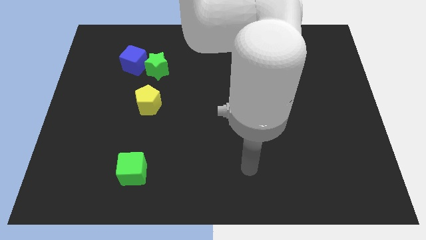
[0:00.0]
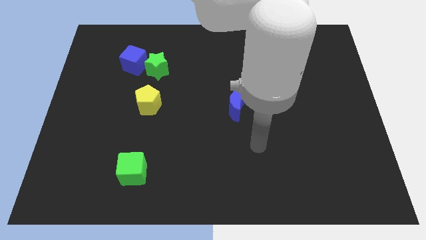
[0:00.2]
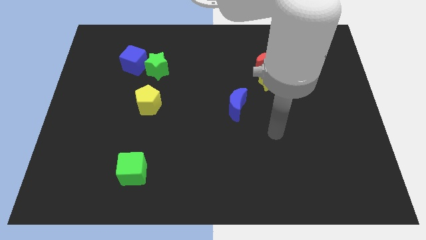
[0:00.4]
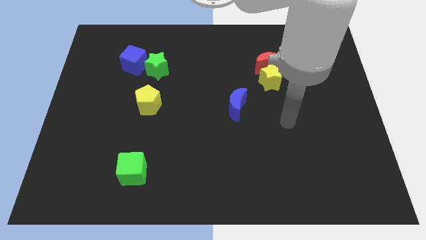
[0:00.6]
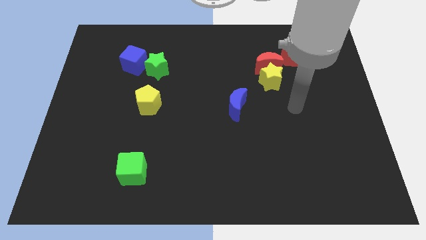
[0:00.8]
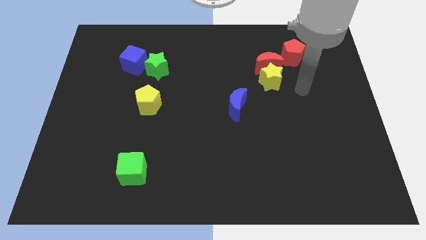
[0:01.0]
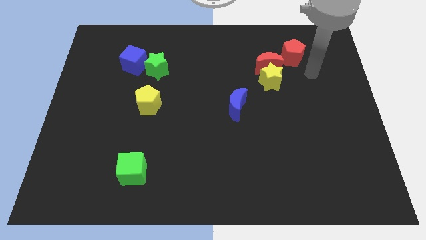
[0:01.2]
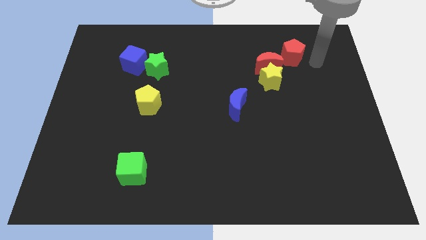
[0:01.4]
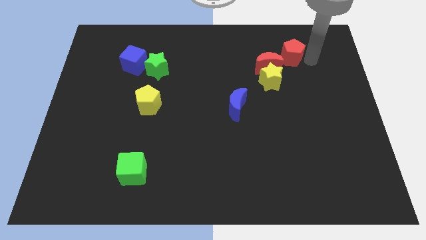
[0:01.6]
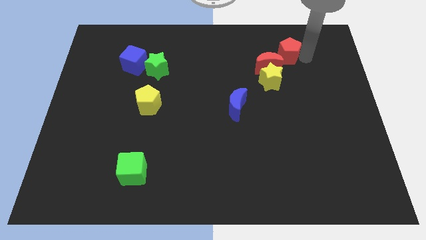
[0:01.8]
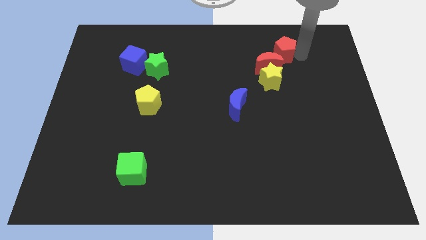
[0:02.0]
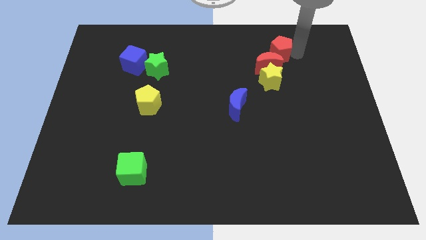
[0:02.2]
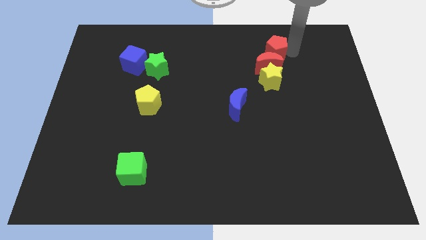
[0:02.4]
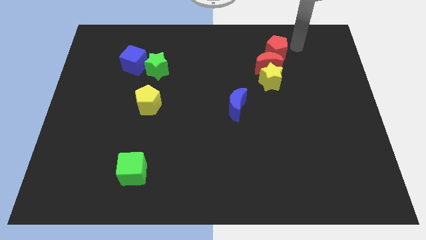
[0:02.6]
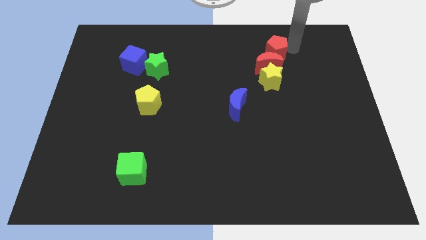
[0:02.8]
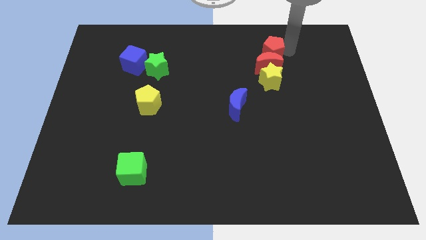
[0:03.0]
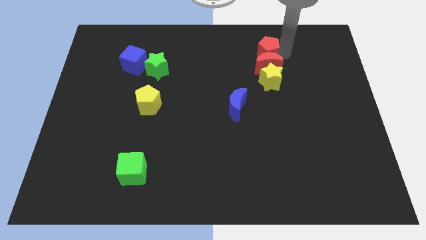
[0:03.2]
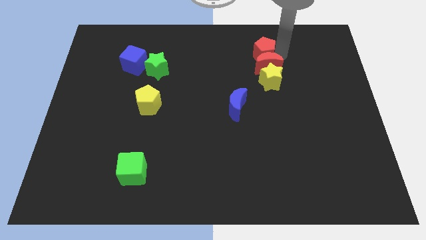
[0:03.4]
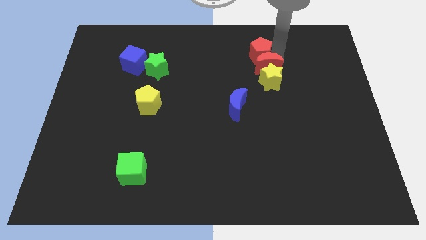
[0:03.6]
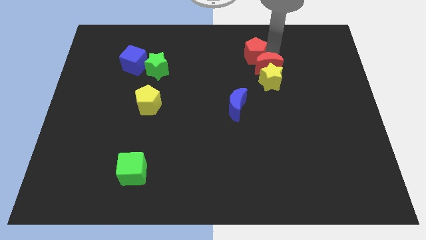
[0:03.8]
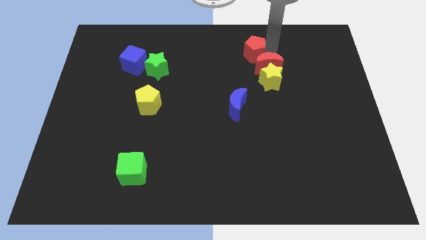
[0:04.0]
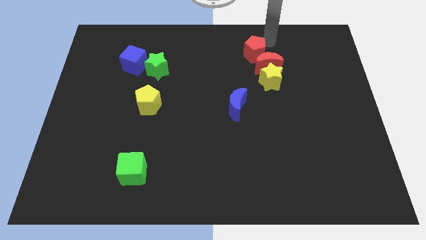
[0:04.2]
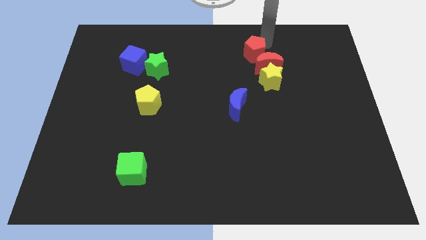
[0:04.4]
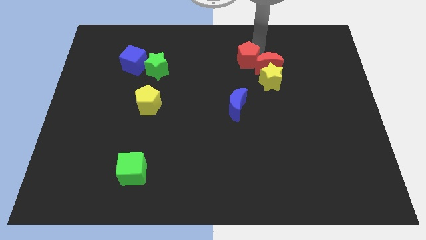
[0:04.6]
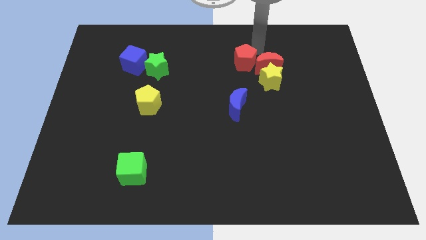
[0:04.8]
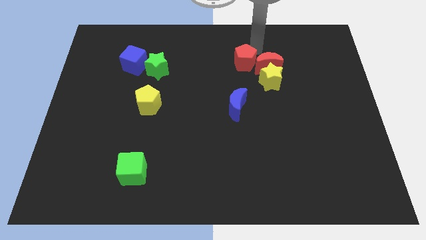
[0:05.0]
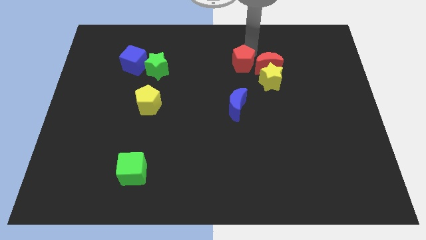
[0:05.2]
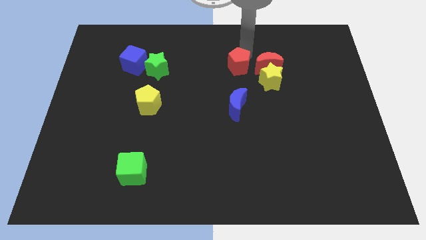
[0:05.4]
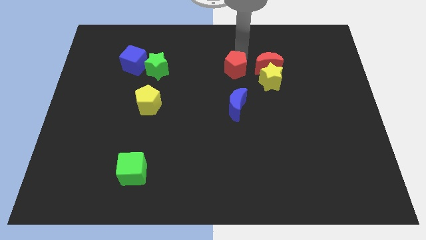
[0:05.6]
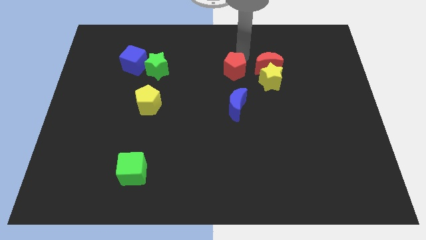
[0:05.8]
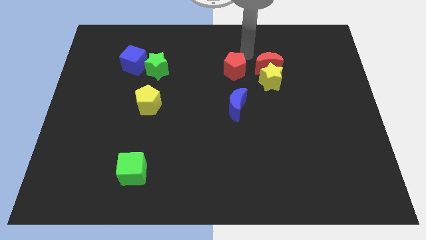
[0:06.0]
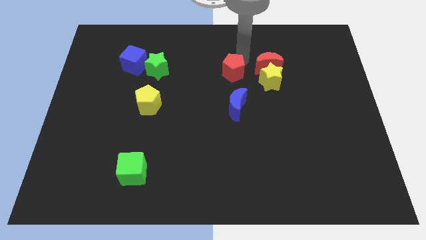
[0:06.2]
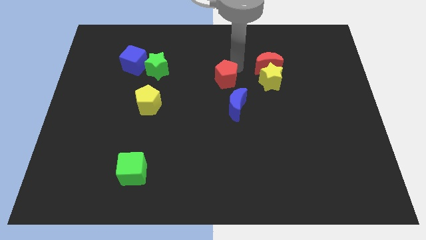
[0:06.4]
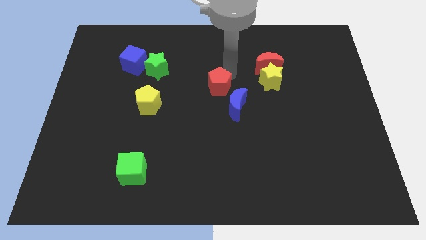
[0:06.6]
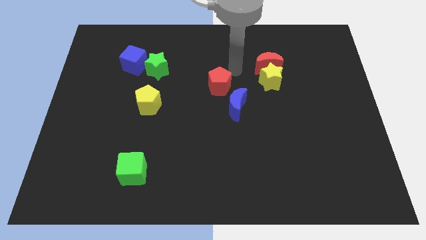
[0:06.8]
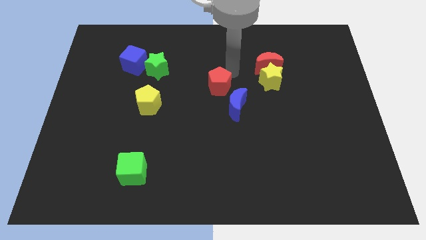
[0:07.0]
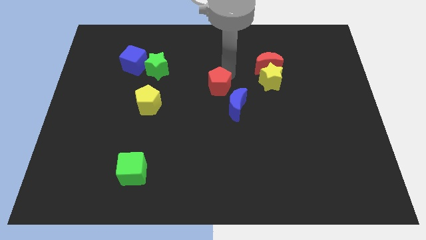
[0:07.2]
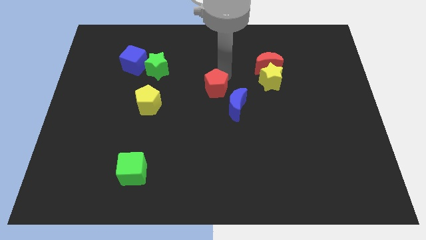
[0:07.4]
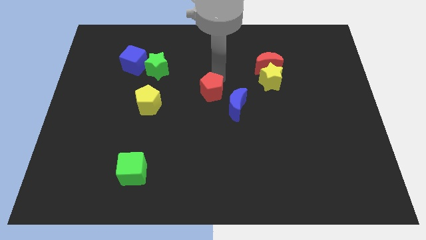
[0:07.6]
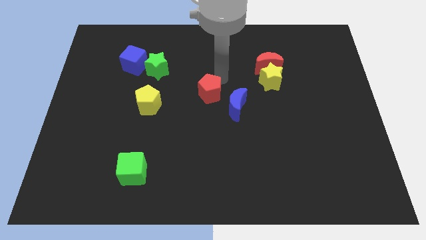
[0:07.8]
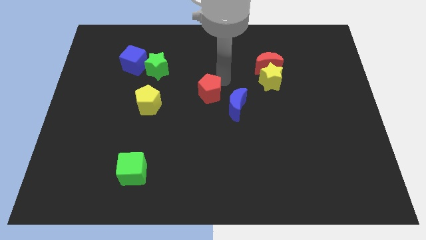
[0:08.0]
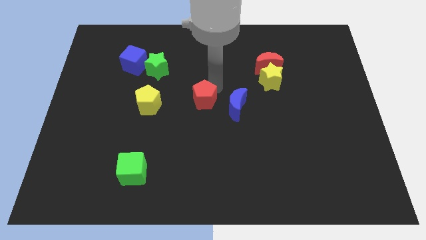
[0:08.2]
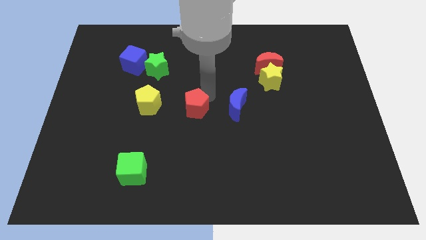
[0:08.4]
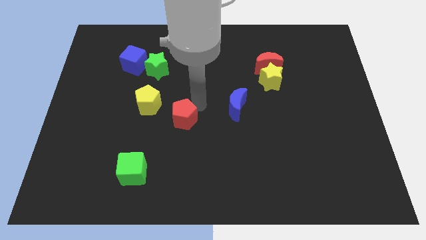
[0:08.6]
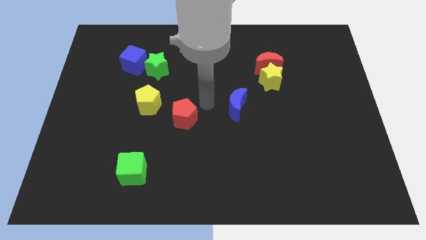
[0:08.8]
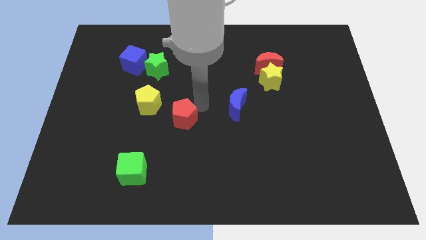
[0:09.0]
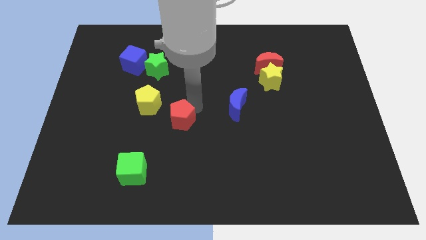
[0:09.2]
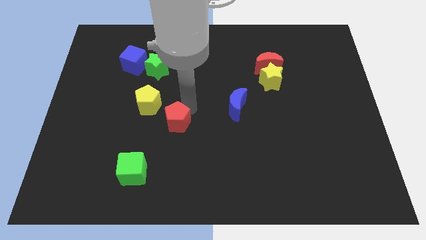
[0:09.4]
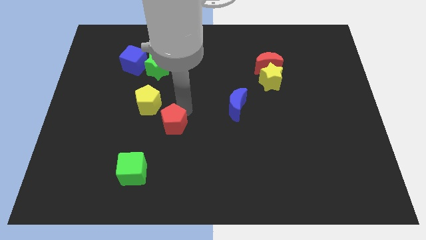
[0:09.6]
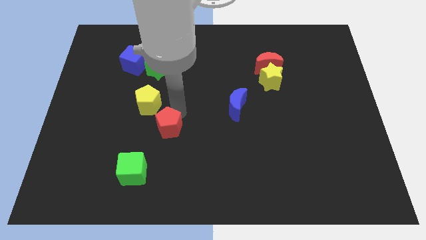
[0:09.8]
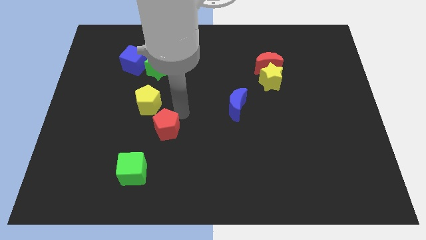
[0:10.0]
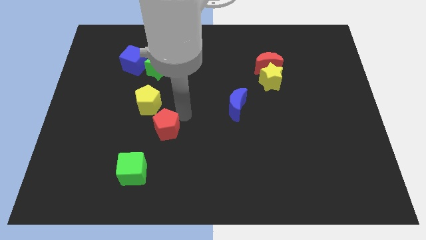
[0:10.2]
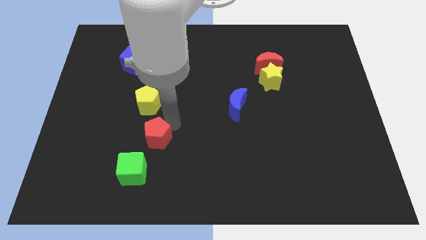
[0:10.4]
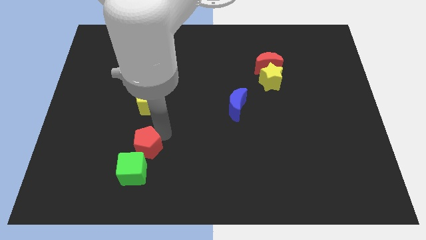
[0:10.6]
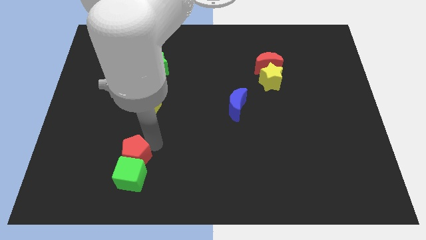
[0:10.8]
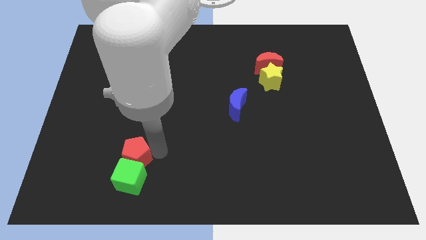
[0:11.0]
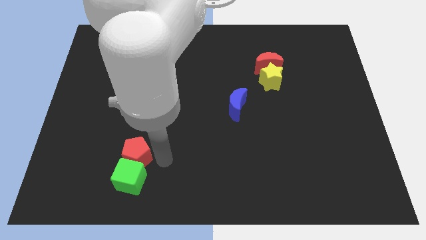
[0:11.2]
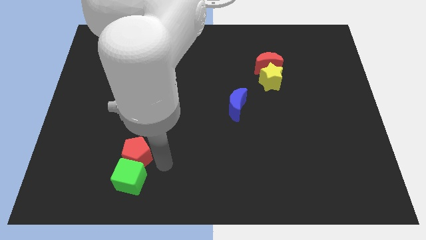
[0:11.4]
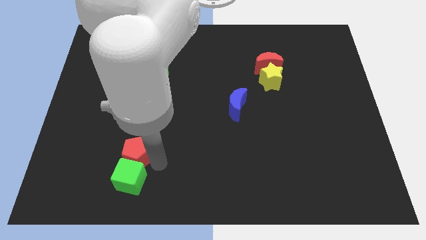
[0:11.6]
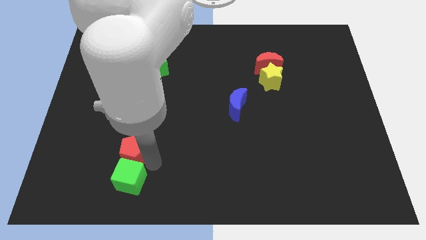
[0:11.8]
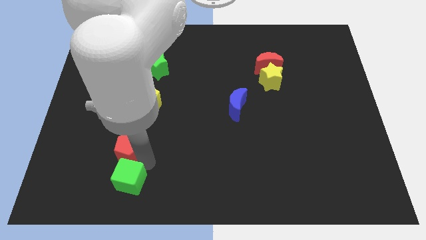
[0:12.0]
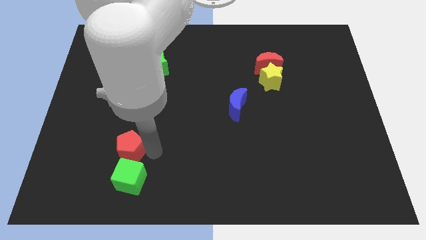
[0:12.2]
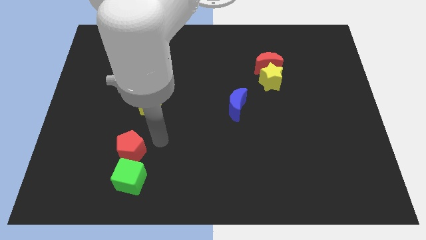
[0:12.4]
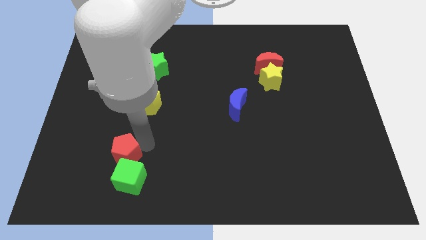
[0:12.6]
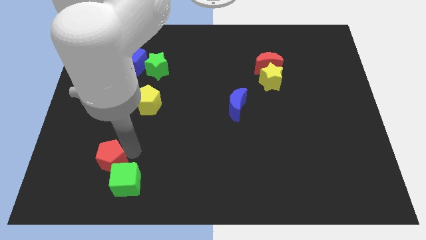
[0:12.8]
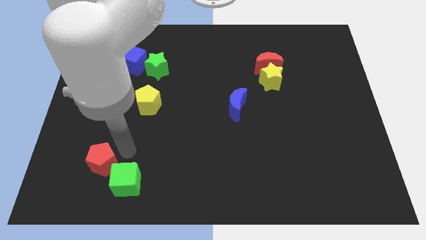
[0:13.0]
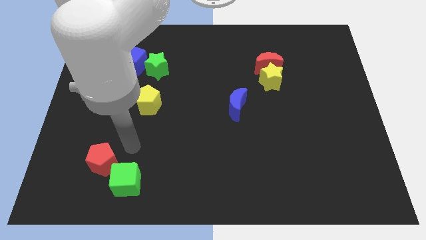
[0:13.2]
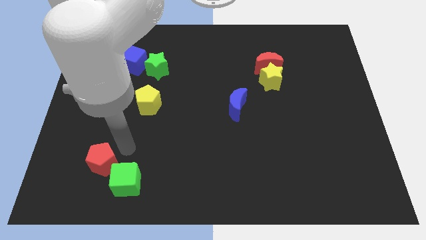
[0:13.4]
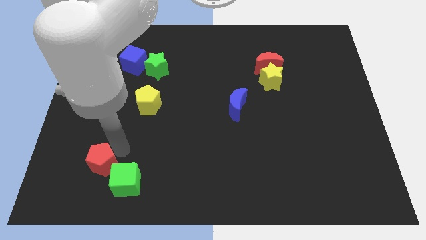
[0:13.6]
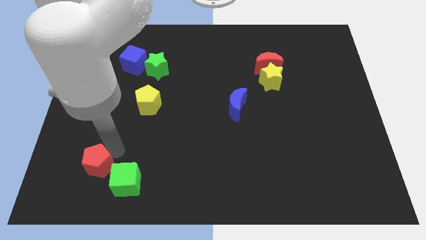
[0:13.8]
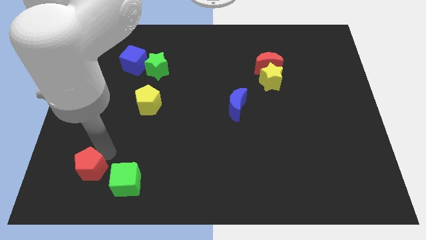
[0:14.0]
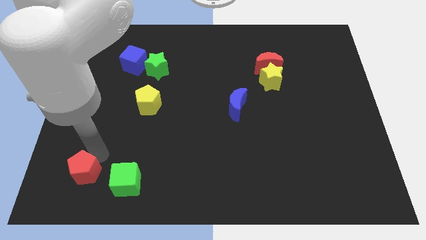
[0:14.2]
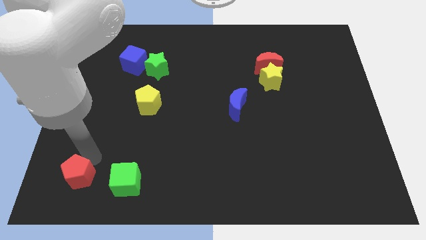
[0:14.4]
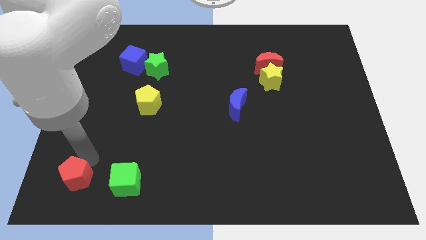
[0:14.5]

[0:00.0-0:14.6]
slide the red pentagon to the bottom left corner

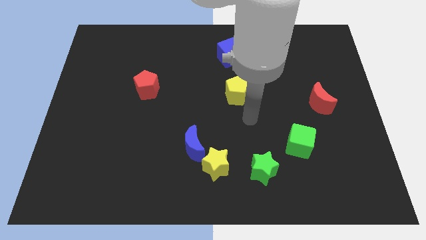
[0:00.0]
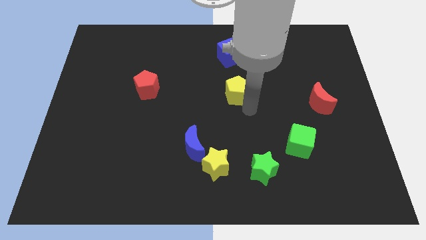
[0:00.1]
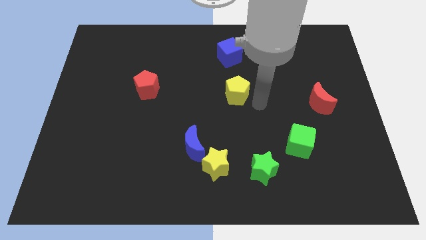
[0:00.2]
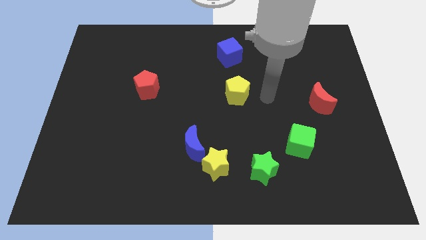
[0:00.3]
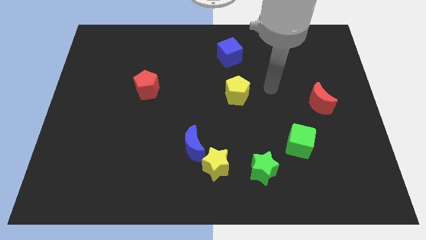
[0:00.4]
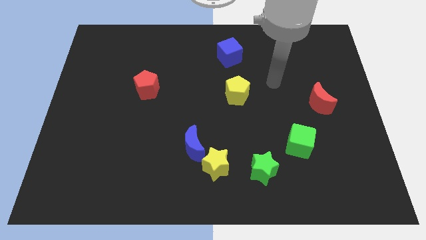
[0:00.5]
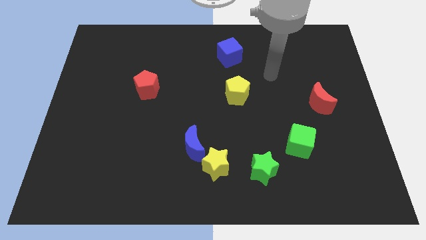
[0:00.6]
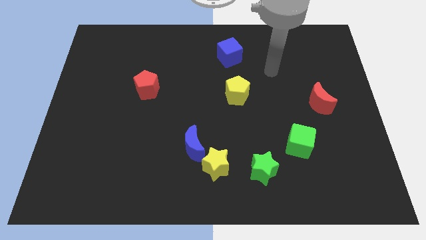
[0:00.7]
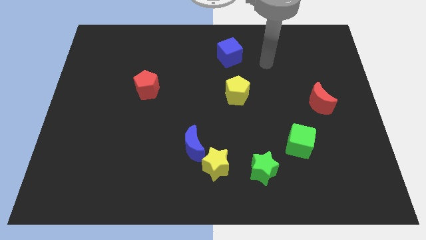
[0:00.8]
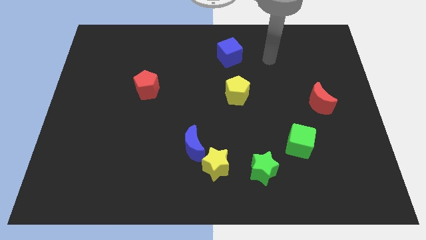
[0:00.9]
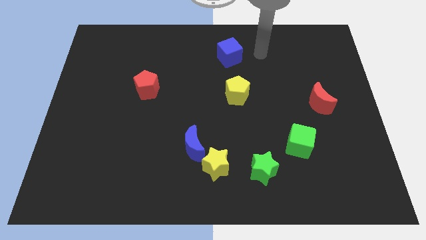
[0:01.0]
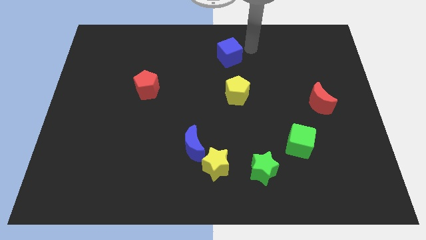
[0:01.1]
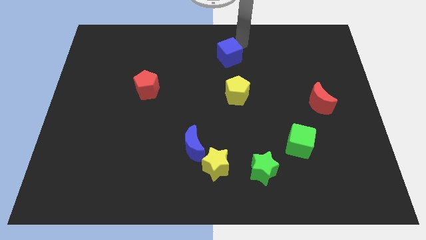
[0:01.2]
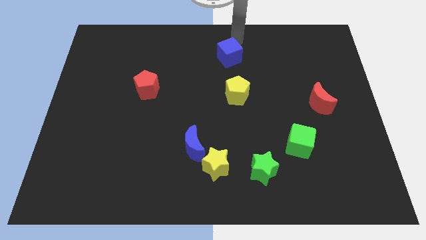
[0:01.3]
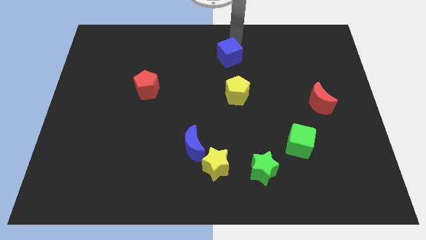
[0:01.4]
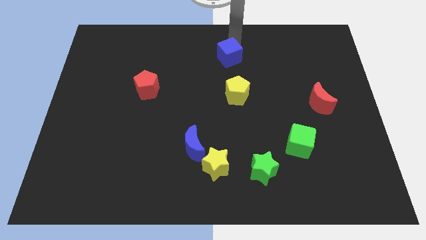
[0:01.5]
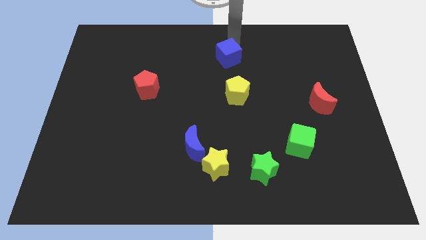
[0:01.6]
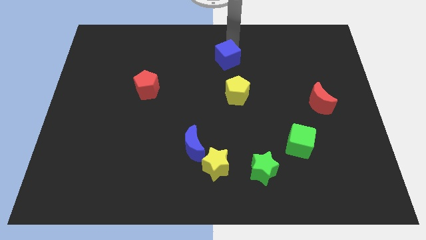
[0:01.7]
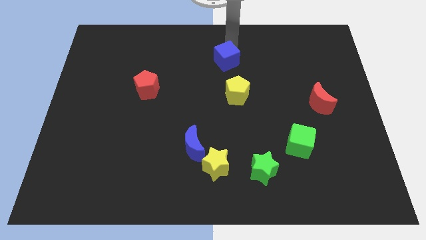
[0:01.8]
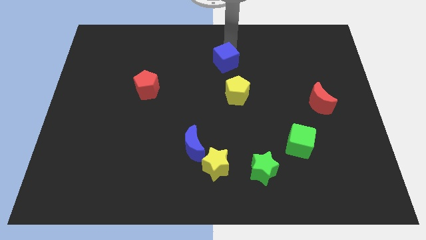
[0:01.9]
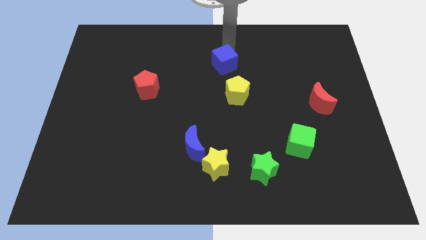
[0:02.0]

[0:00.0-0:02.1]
put the blue cube to the middle
